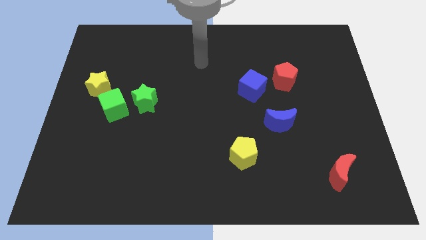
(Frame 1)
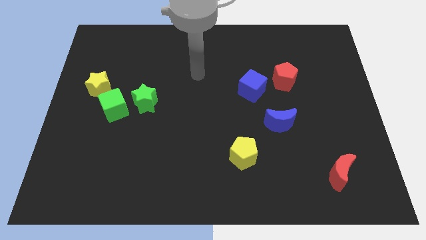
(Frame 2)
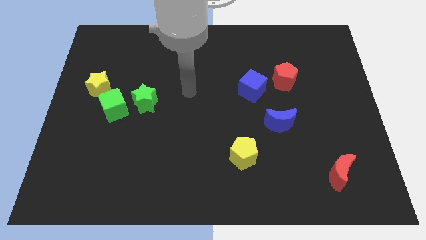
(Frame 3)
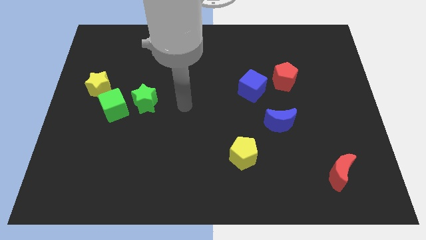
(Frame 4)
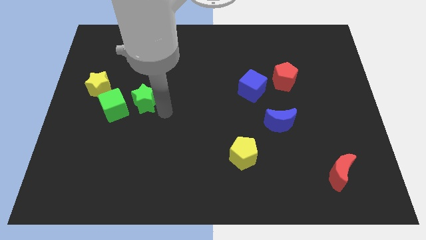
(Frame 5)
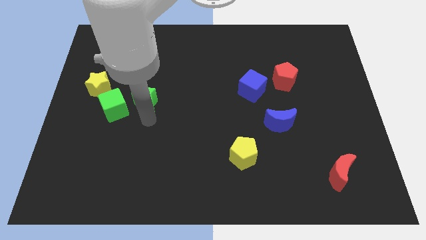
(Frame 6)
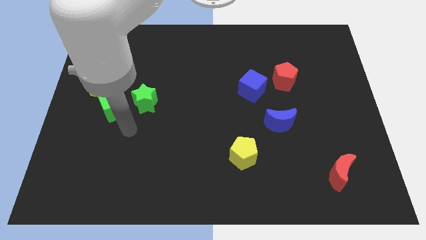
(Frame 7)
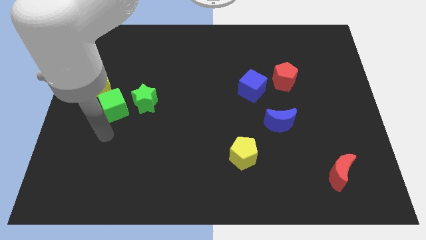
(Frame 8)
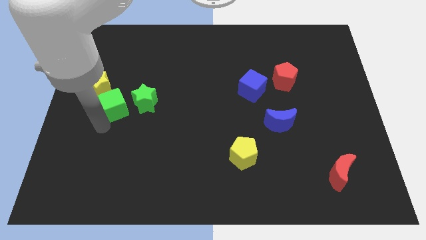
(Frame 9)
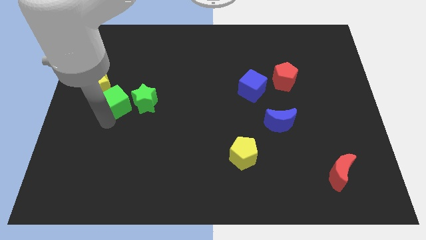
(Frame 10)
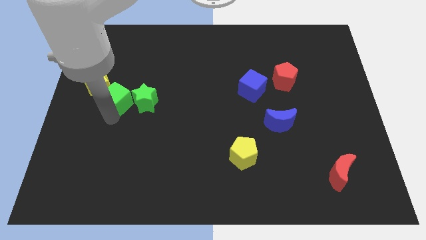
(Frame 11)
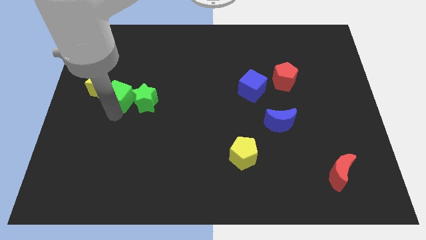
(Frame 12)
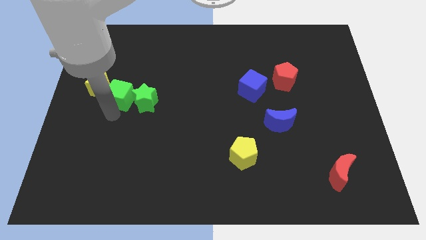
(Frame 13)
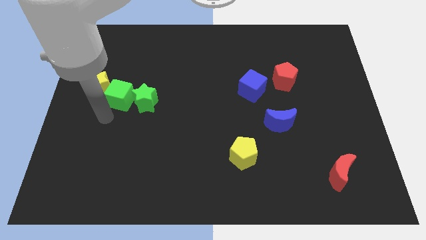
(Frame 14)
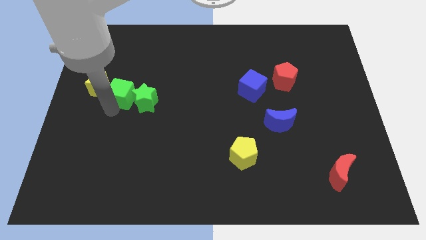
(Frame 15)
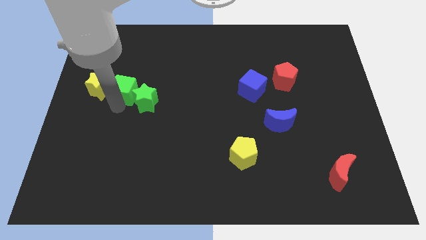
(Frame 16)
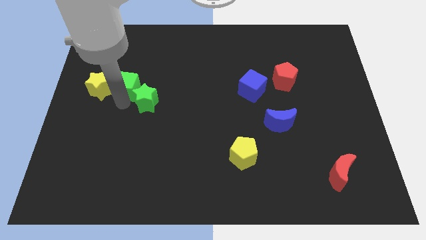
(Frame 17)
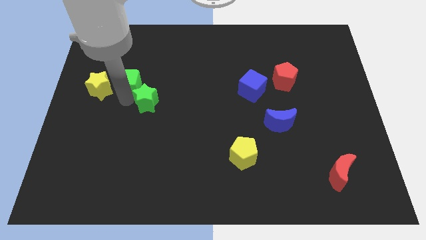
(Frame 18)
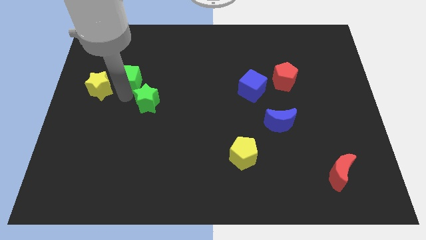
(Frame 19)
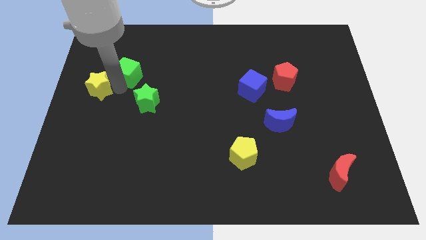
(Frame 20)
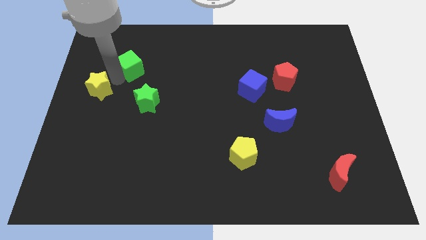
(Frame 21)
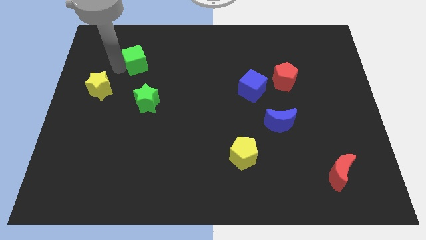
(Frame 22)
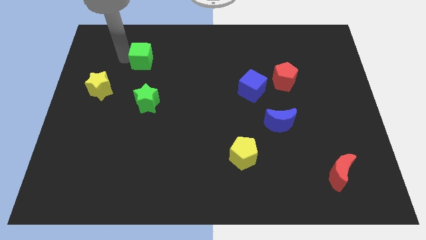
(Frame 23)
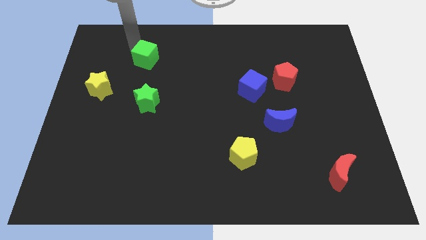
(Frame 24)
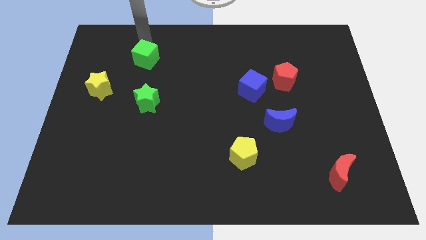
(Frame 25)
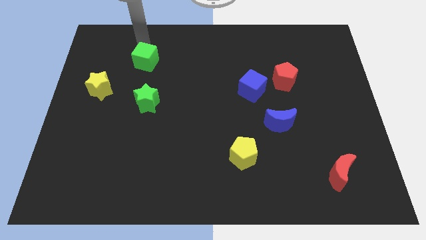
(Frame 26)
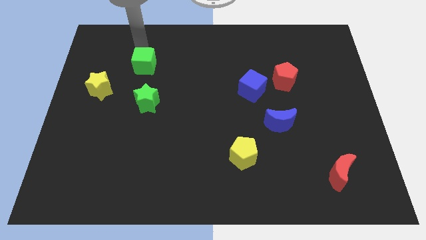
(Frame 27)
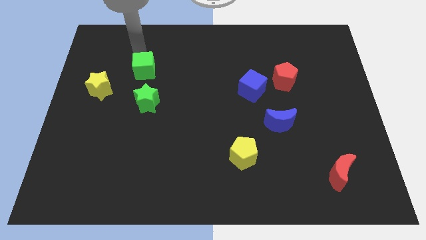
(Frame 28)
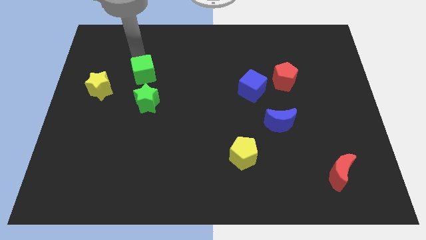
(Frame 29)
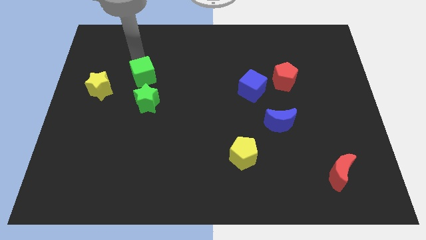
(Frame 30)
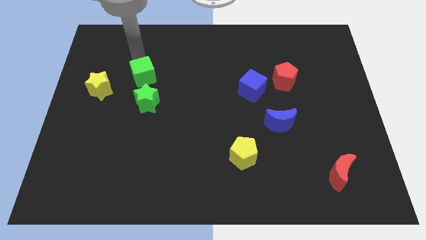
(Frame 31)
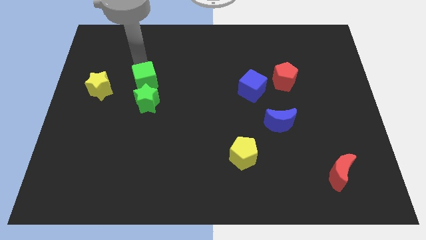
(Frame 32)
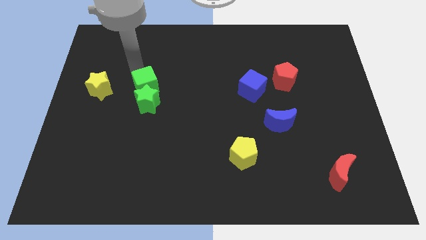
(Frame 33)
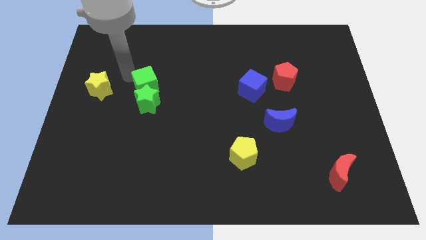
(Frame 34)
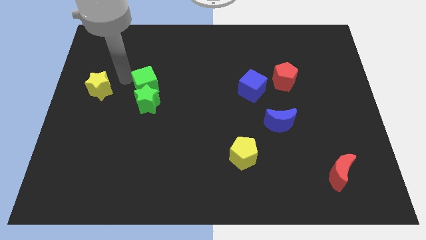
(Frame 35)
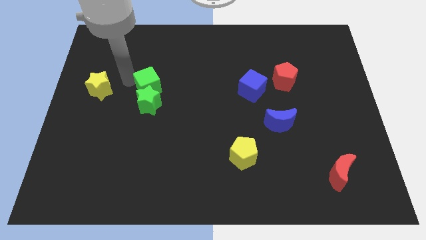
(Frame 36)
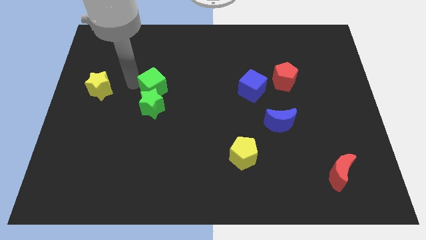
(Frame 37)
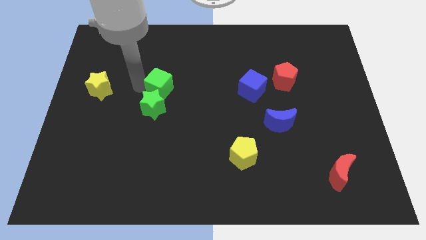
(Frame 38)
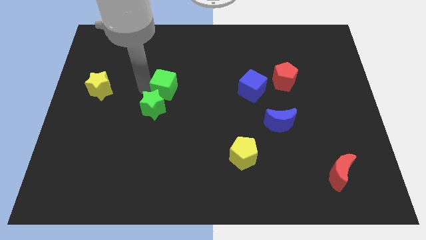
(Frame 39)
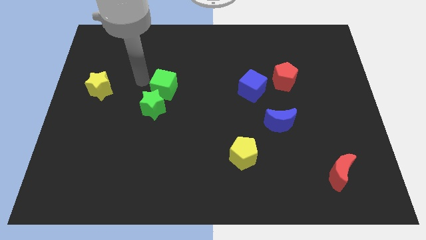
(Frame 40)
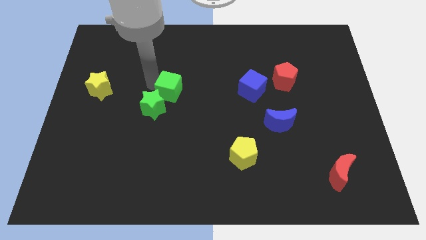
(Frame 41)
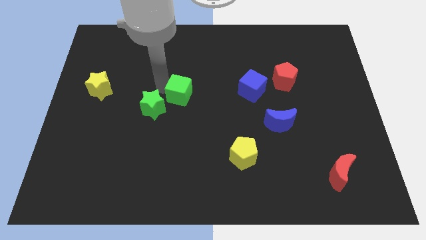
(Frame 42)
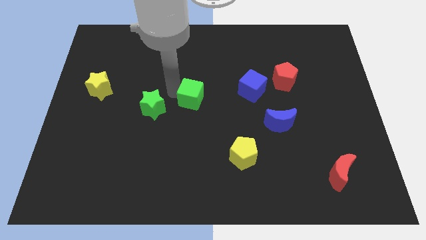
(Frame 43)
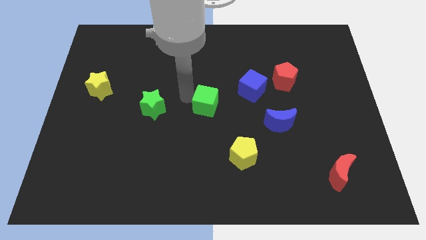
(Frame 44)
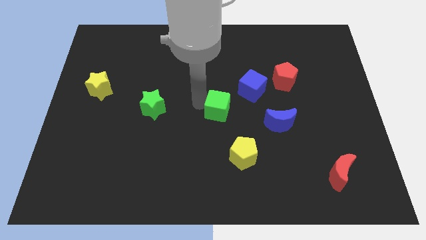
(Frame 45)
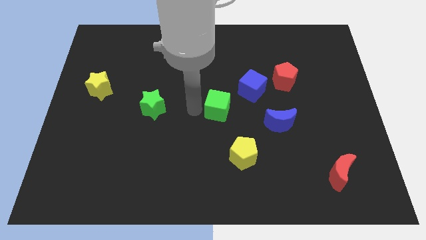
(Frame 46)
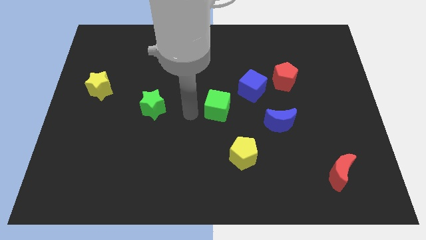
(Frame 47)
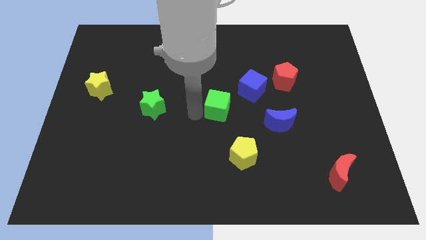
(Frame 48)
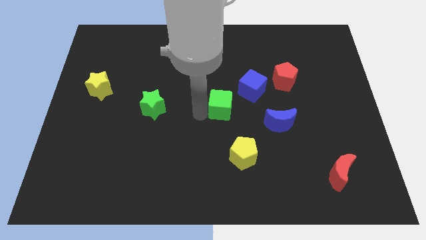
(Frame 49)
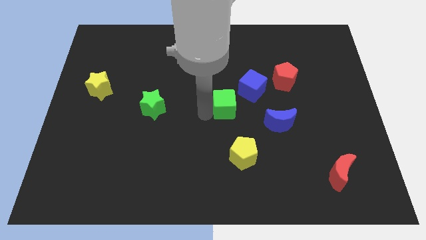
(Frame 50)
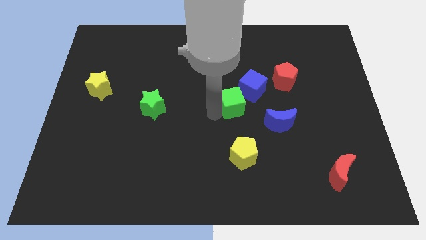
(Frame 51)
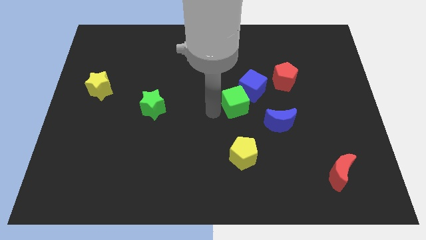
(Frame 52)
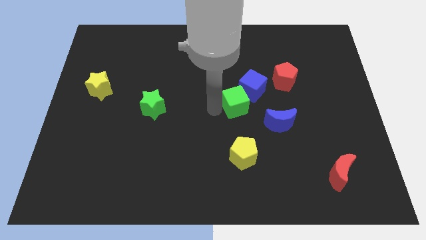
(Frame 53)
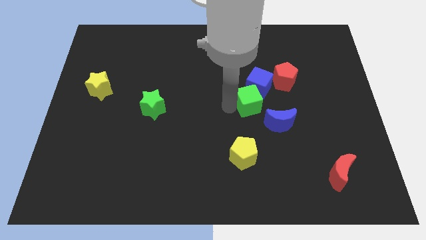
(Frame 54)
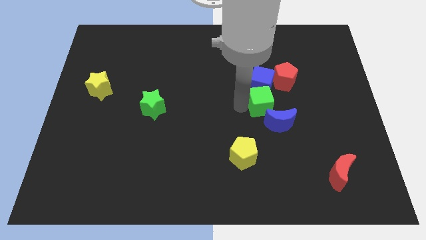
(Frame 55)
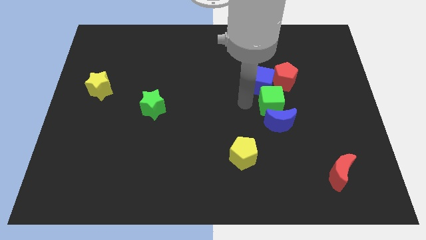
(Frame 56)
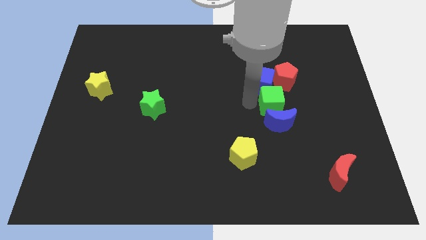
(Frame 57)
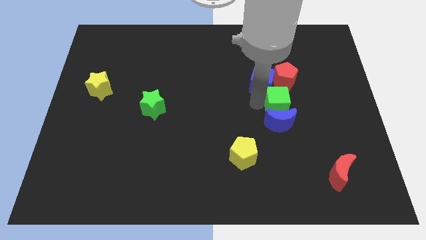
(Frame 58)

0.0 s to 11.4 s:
push the green cube to the top right of the blue moon

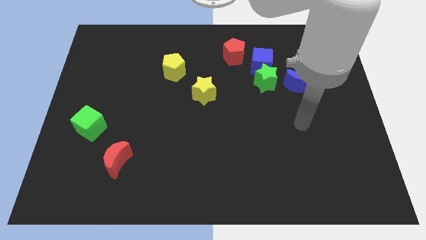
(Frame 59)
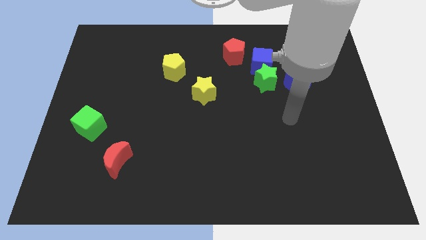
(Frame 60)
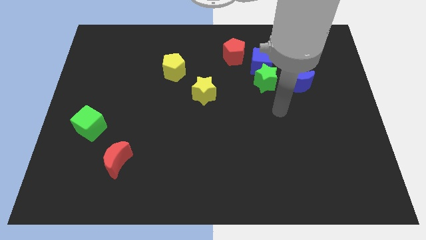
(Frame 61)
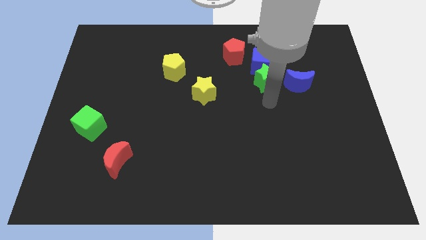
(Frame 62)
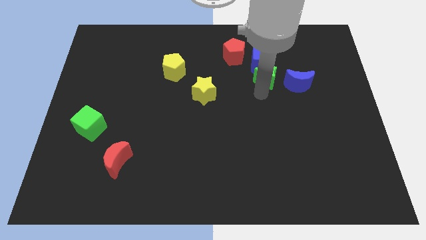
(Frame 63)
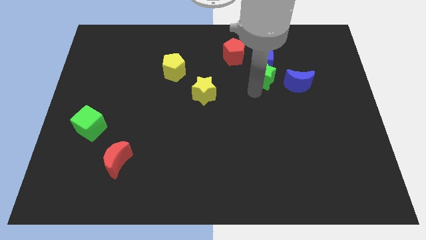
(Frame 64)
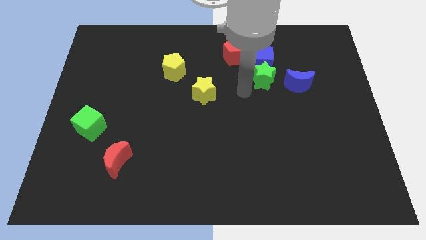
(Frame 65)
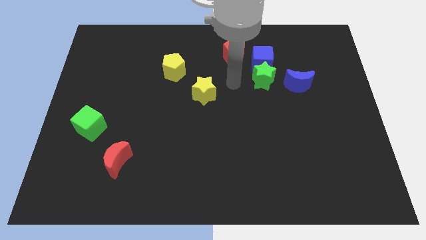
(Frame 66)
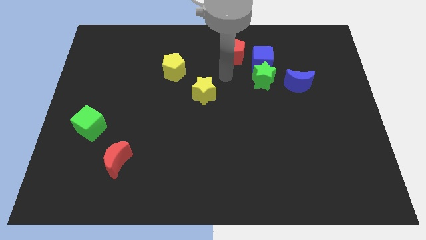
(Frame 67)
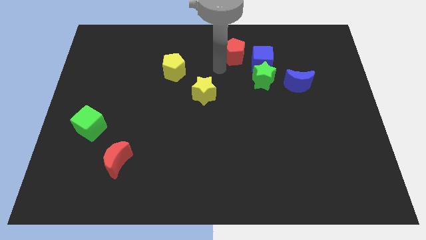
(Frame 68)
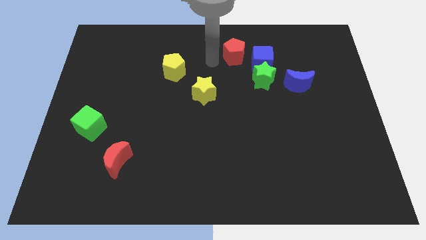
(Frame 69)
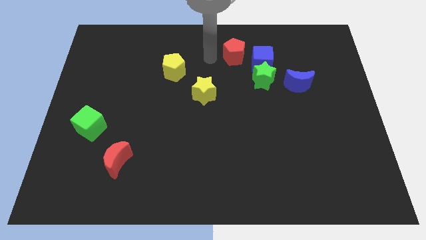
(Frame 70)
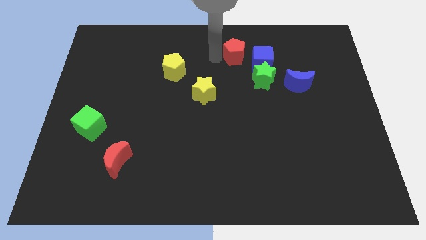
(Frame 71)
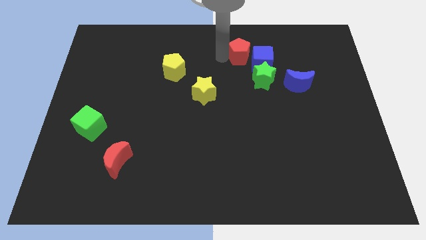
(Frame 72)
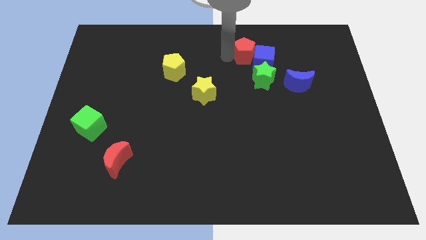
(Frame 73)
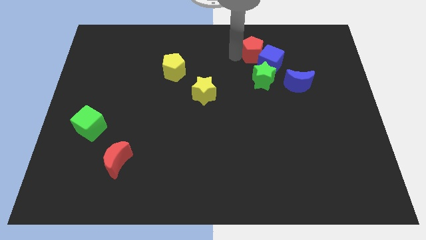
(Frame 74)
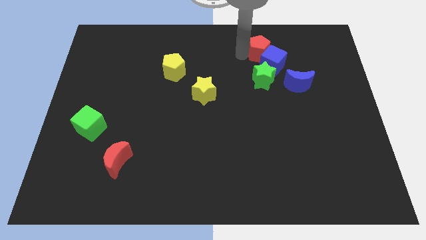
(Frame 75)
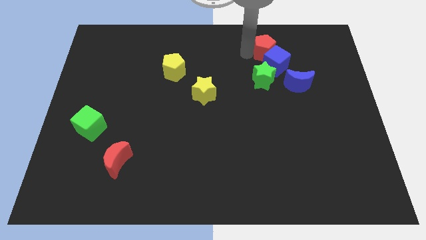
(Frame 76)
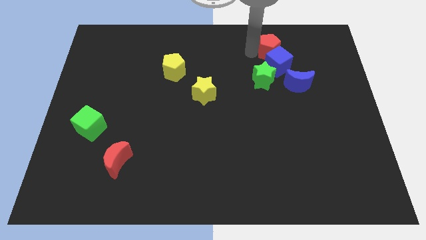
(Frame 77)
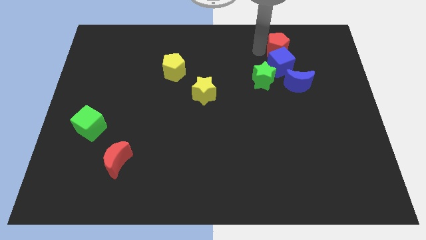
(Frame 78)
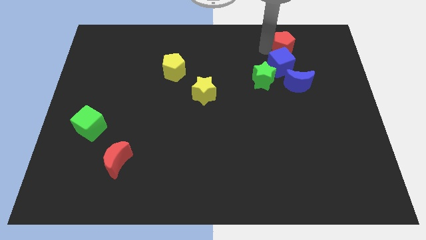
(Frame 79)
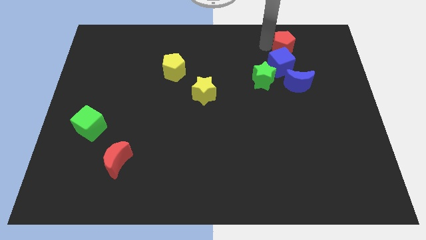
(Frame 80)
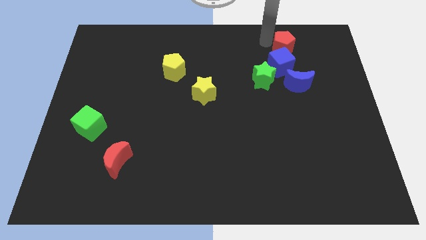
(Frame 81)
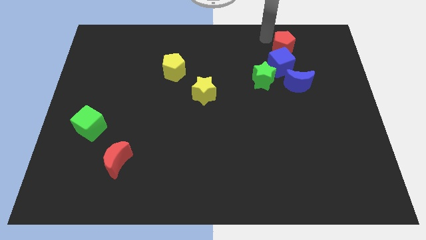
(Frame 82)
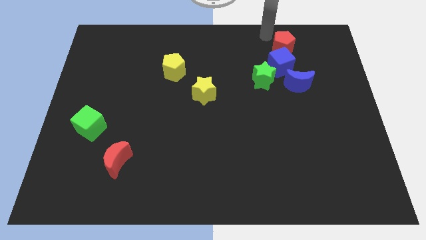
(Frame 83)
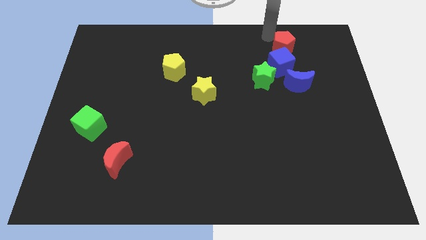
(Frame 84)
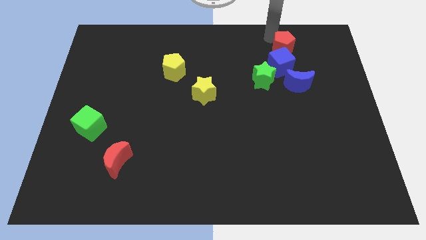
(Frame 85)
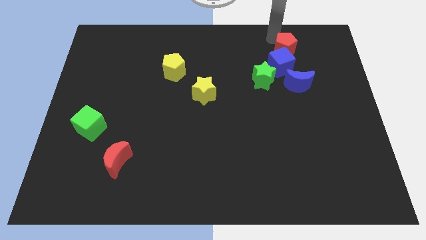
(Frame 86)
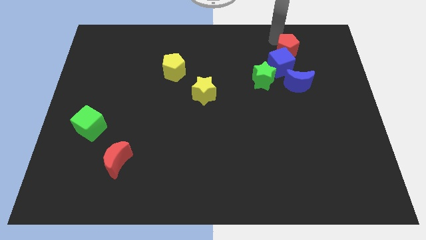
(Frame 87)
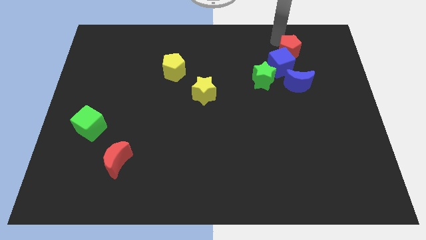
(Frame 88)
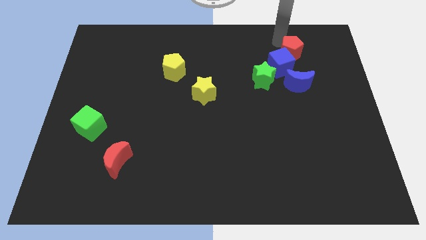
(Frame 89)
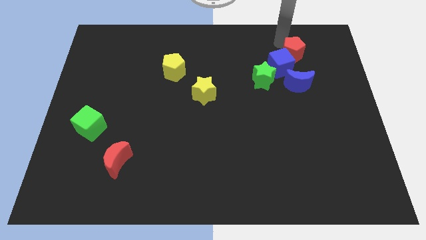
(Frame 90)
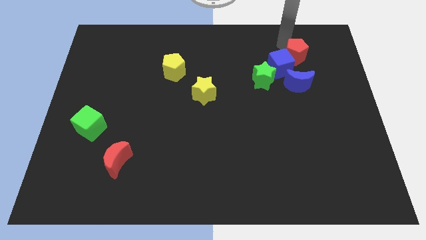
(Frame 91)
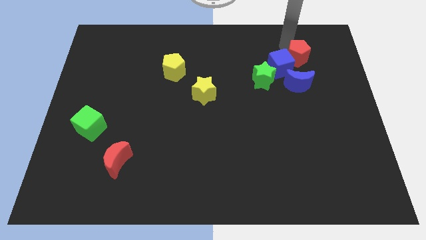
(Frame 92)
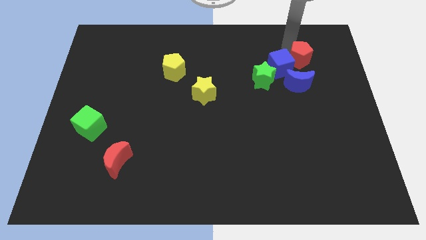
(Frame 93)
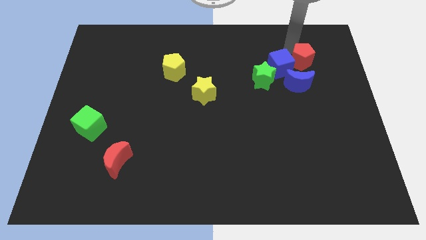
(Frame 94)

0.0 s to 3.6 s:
push the red pentagon to the top right of the blue moon
